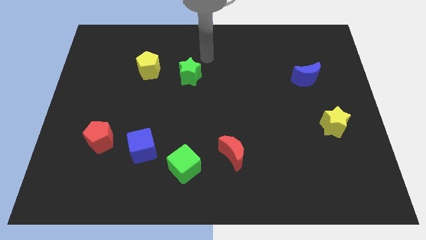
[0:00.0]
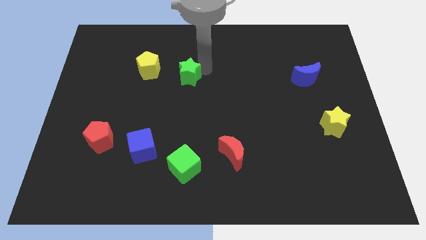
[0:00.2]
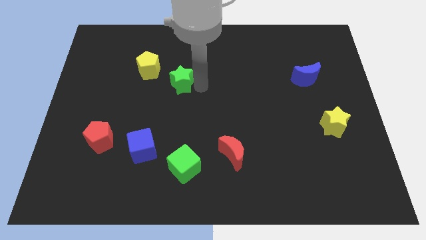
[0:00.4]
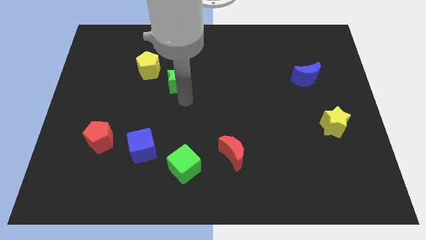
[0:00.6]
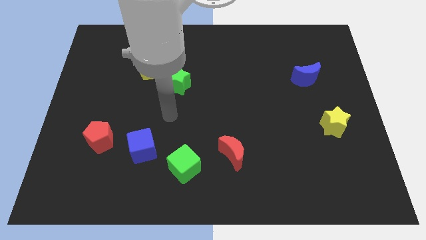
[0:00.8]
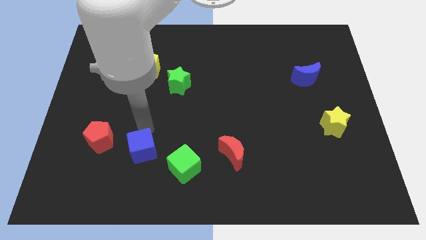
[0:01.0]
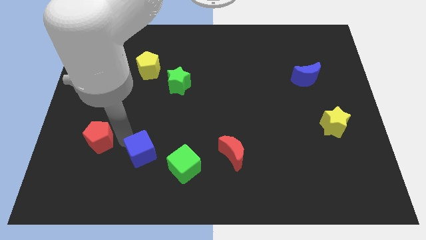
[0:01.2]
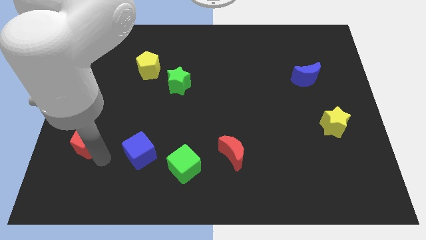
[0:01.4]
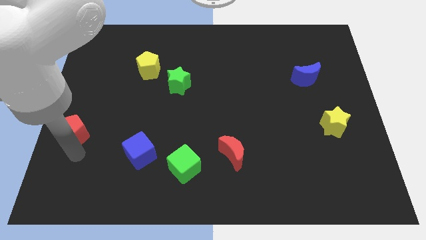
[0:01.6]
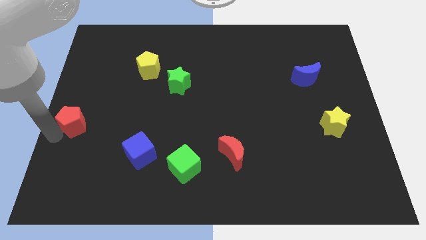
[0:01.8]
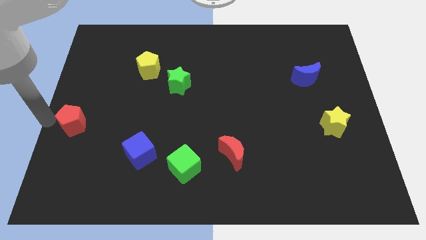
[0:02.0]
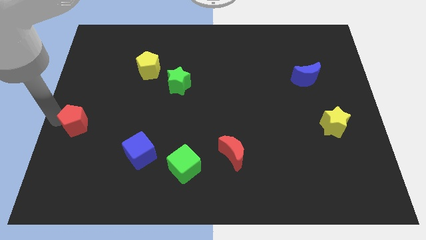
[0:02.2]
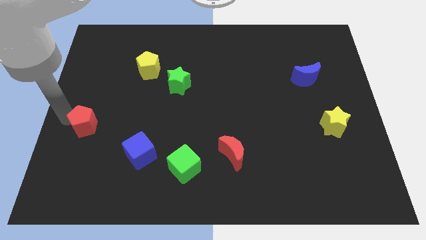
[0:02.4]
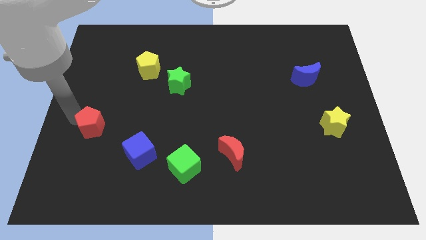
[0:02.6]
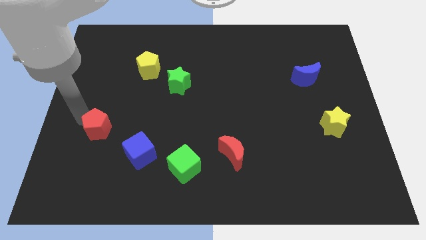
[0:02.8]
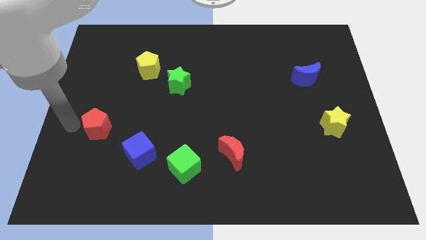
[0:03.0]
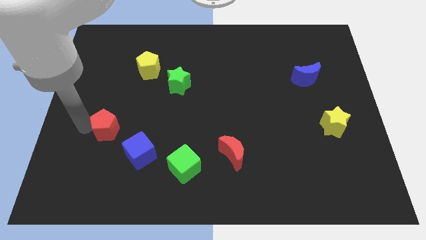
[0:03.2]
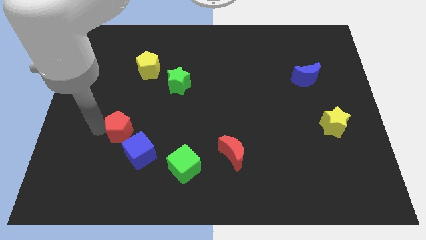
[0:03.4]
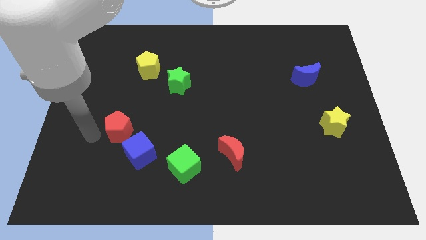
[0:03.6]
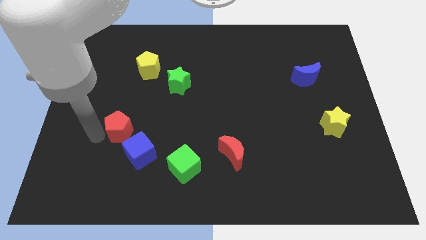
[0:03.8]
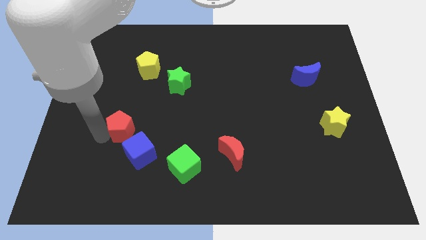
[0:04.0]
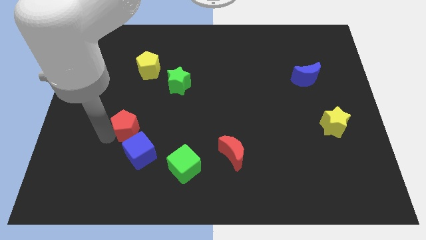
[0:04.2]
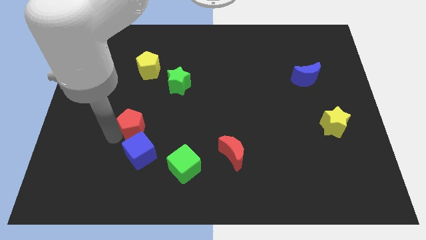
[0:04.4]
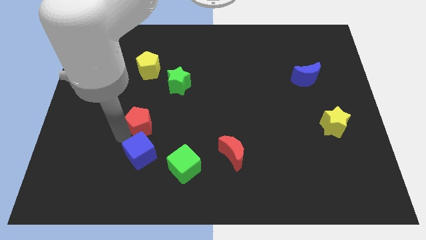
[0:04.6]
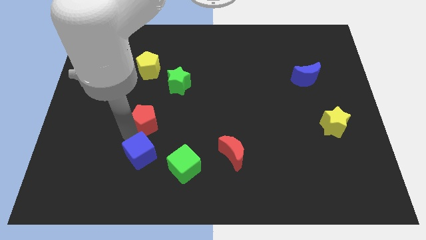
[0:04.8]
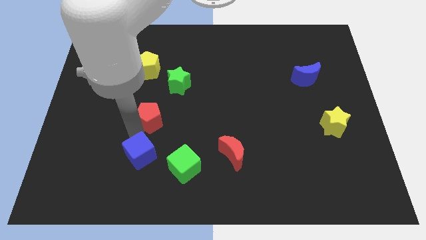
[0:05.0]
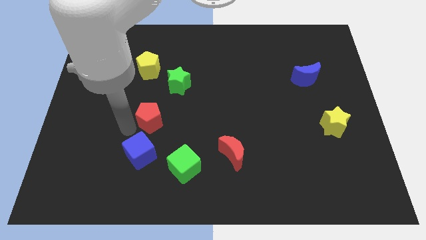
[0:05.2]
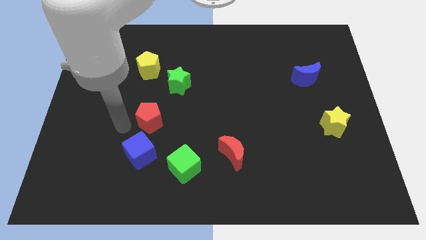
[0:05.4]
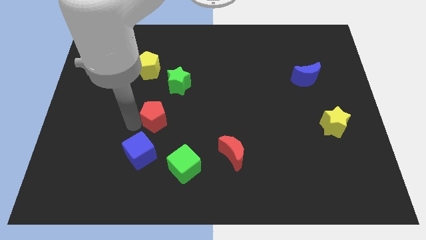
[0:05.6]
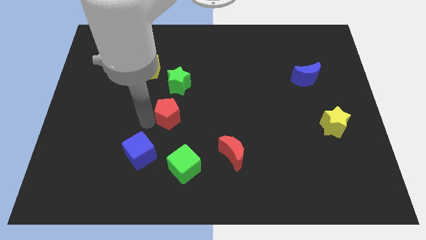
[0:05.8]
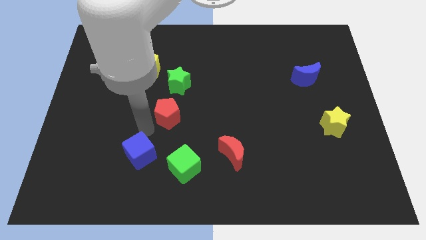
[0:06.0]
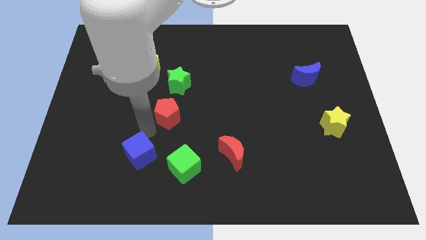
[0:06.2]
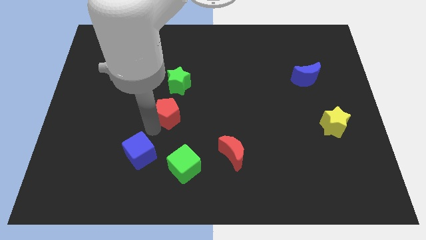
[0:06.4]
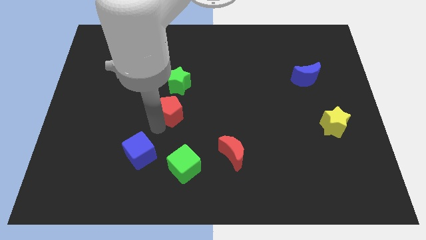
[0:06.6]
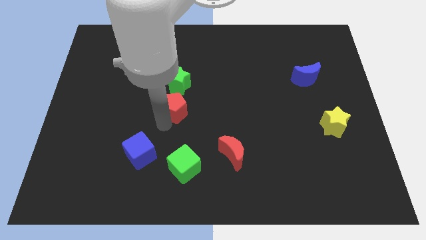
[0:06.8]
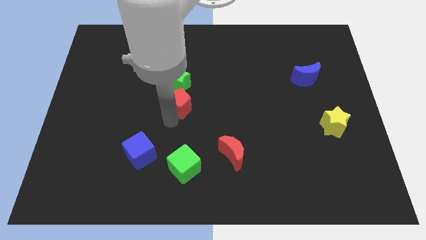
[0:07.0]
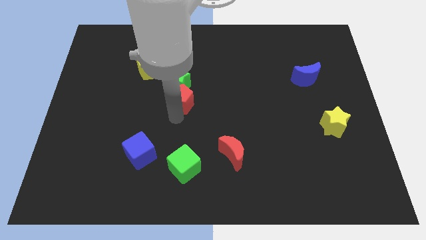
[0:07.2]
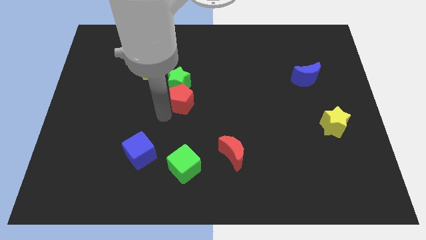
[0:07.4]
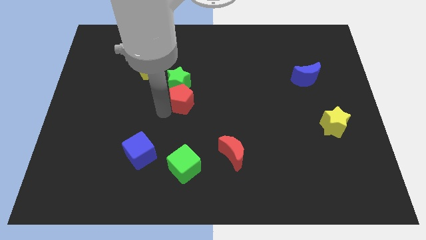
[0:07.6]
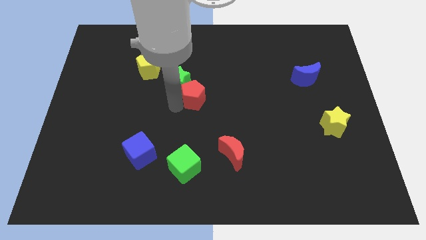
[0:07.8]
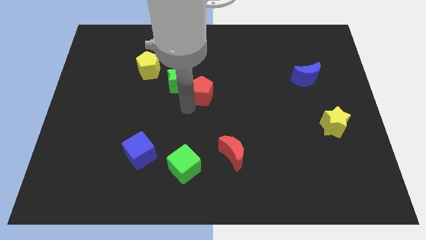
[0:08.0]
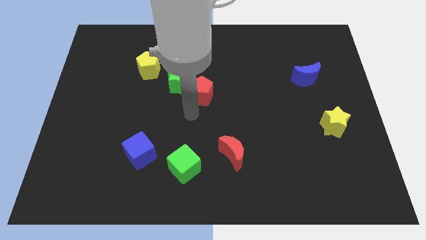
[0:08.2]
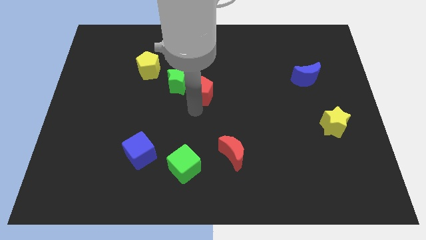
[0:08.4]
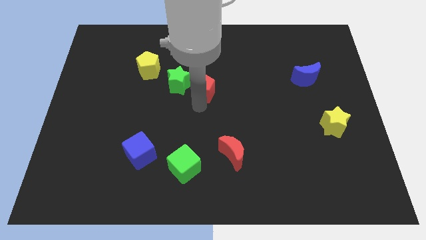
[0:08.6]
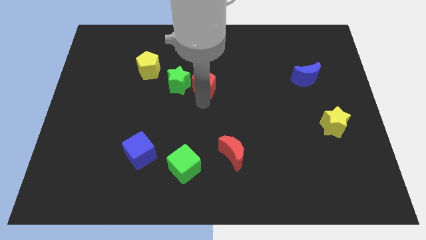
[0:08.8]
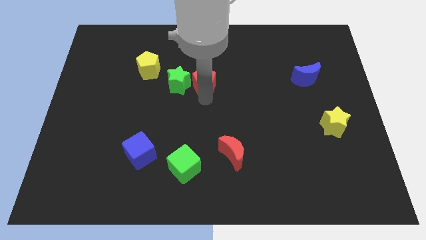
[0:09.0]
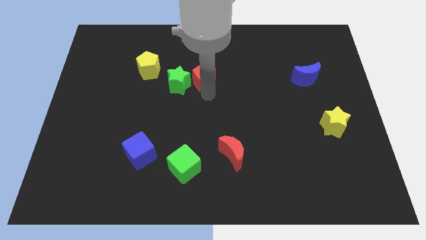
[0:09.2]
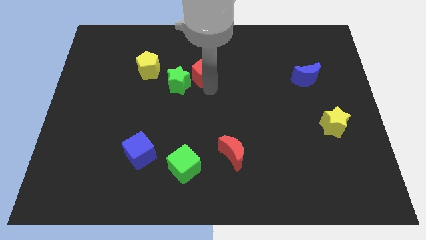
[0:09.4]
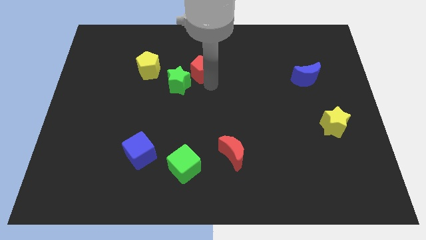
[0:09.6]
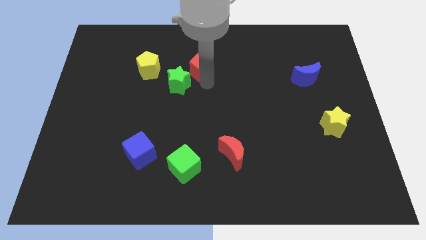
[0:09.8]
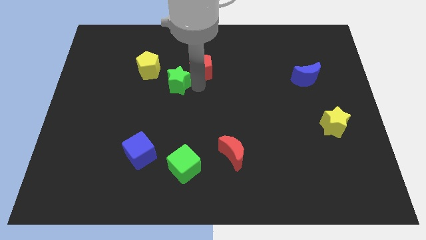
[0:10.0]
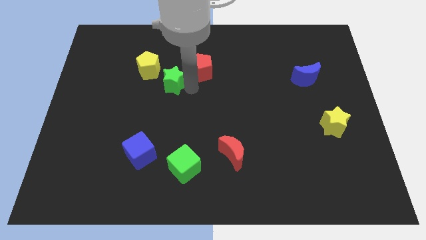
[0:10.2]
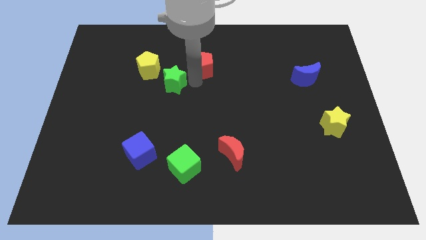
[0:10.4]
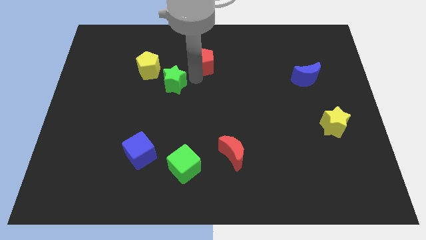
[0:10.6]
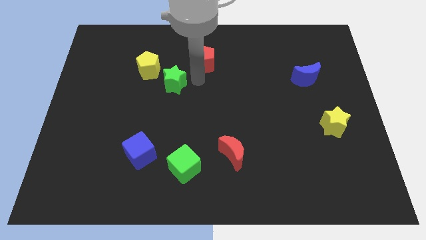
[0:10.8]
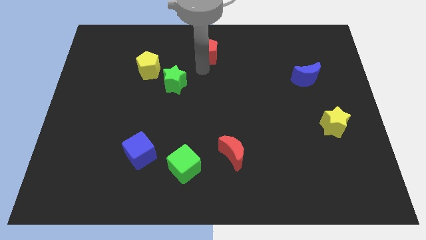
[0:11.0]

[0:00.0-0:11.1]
move the red pentagon to the top side
